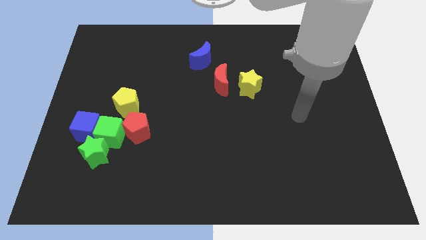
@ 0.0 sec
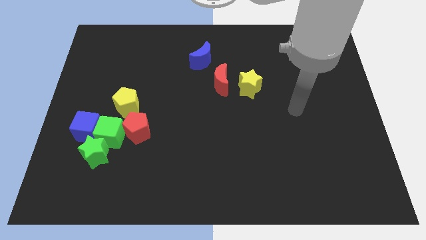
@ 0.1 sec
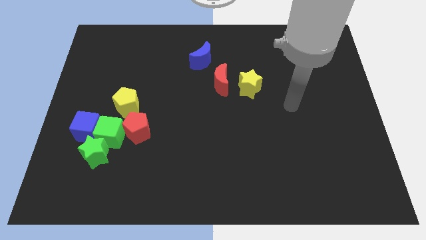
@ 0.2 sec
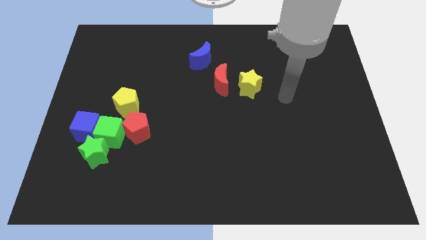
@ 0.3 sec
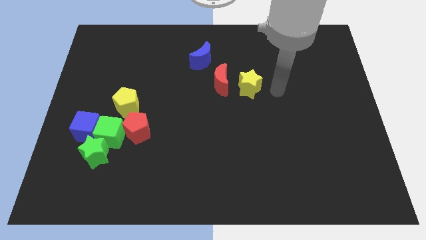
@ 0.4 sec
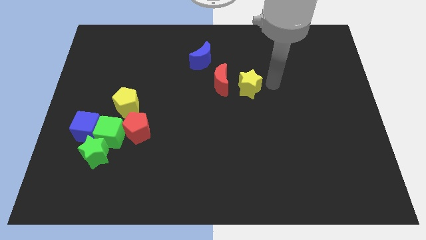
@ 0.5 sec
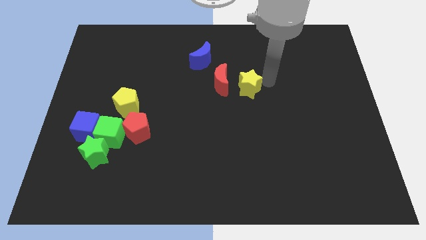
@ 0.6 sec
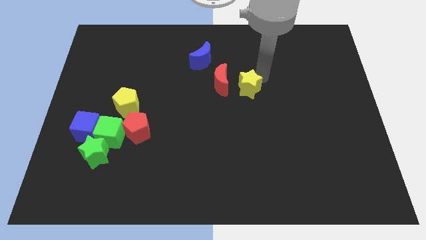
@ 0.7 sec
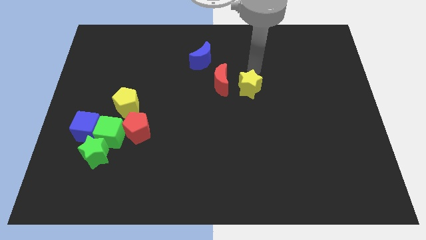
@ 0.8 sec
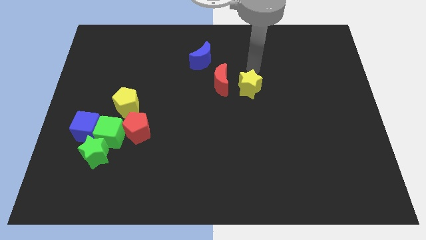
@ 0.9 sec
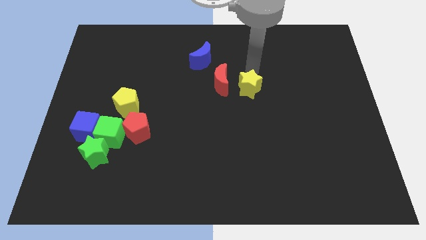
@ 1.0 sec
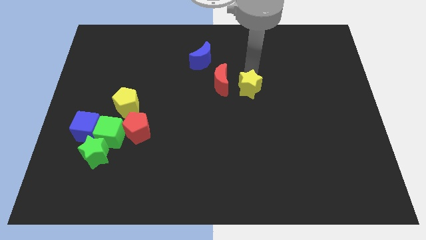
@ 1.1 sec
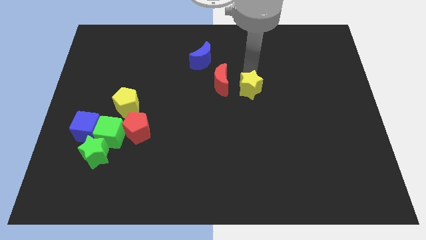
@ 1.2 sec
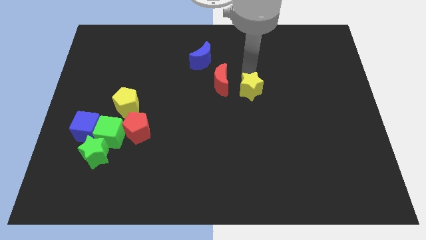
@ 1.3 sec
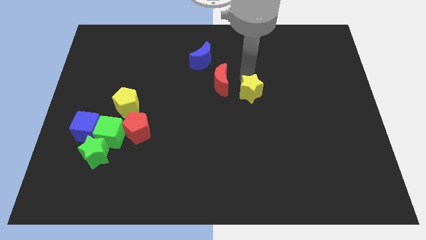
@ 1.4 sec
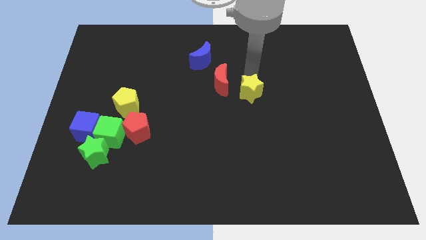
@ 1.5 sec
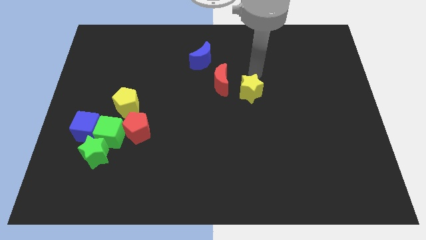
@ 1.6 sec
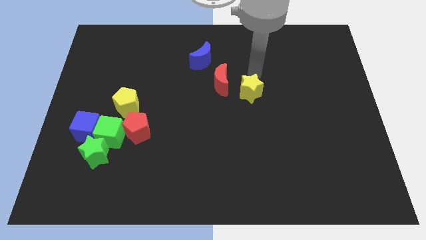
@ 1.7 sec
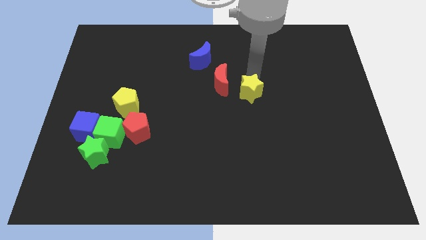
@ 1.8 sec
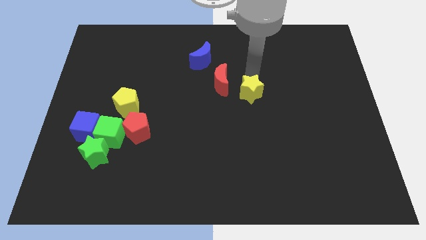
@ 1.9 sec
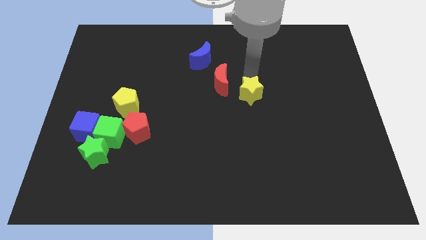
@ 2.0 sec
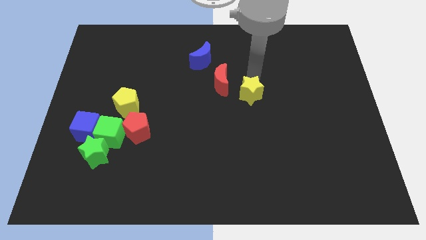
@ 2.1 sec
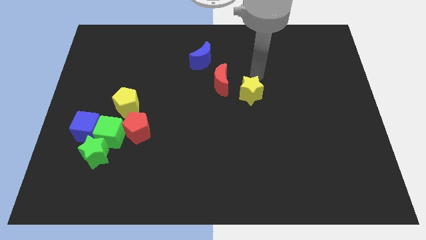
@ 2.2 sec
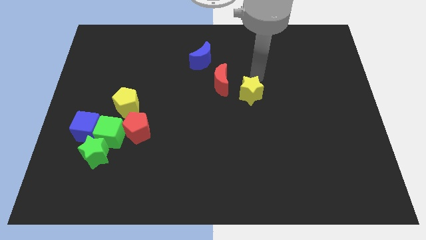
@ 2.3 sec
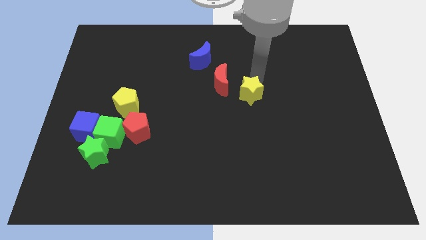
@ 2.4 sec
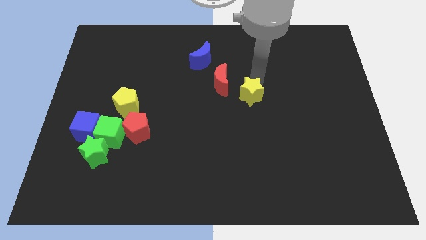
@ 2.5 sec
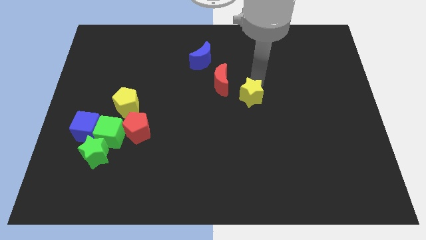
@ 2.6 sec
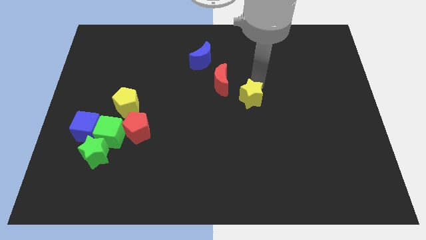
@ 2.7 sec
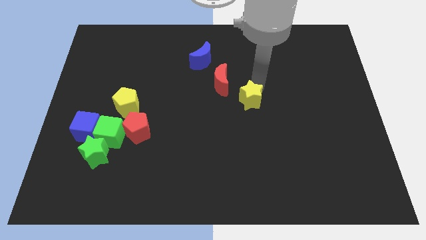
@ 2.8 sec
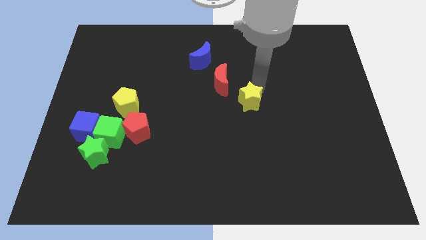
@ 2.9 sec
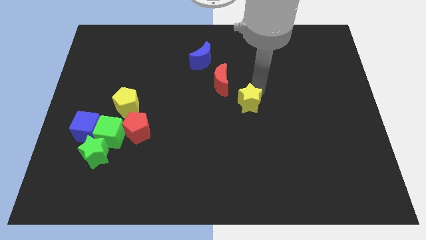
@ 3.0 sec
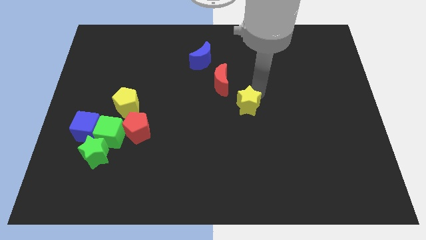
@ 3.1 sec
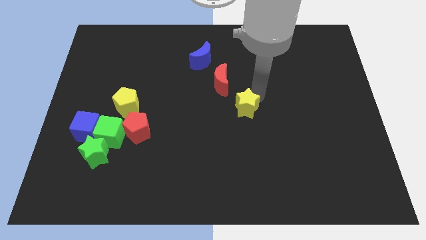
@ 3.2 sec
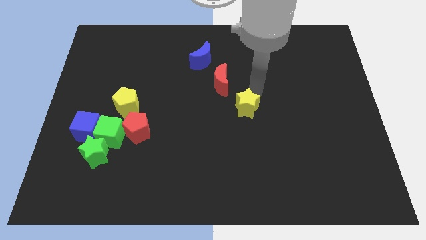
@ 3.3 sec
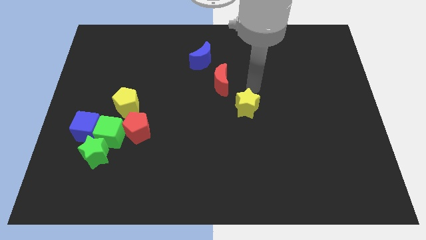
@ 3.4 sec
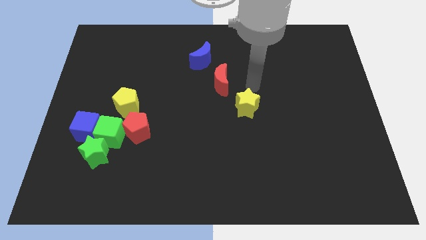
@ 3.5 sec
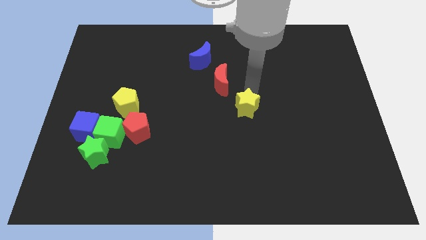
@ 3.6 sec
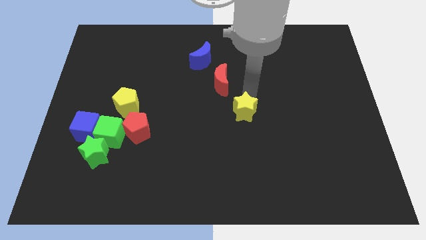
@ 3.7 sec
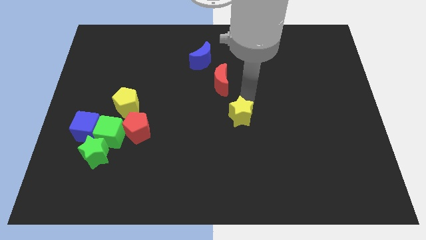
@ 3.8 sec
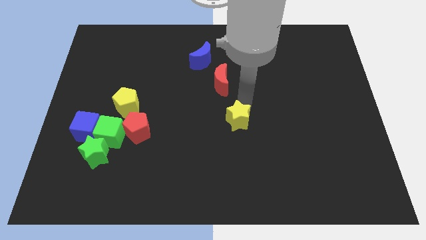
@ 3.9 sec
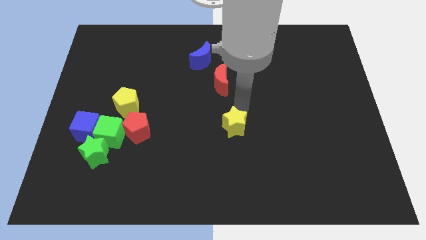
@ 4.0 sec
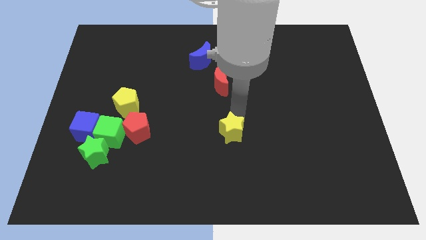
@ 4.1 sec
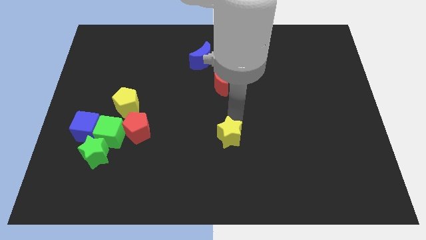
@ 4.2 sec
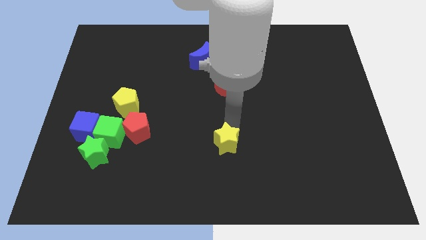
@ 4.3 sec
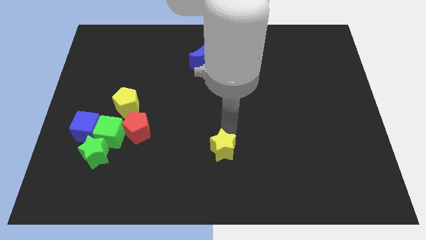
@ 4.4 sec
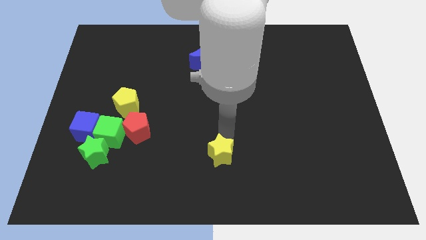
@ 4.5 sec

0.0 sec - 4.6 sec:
slide the yellow star to the bottom side

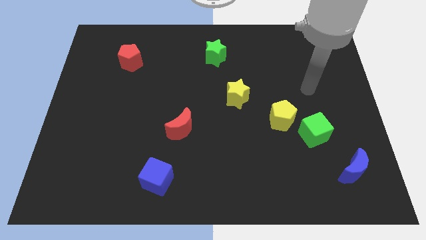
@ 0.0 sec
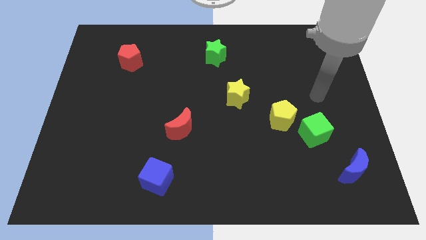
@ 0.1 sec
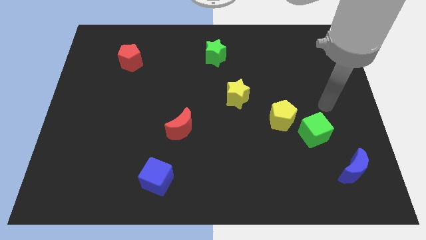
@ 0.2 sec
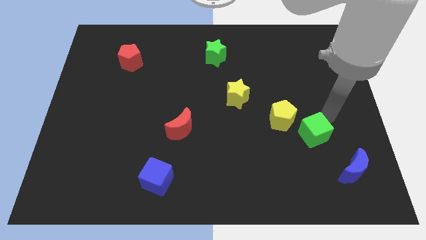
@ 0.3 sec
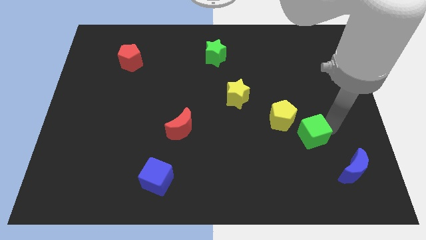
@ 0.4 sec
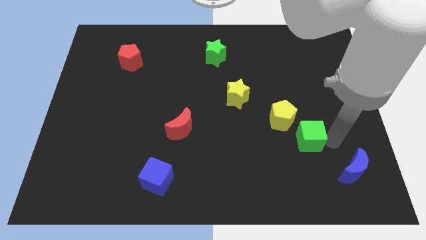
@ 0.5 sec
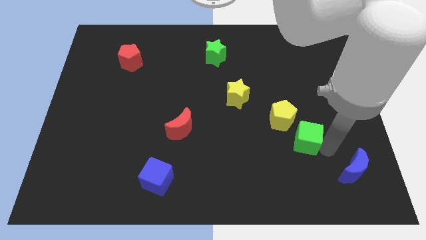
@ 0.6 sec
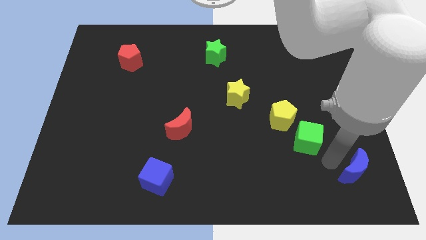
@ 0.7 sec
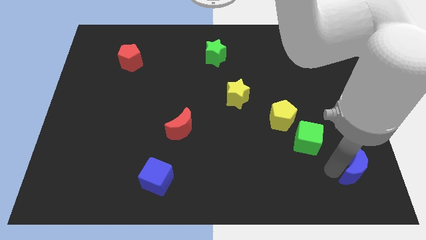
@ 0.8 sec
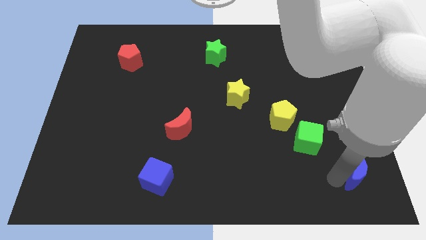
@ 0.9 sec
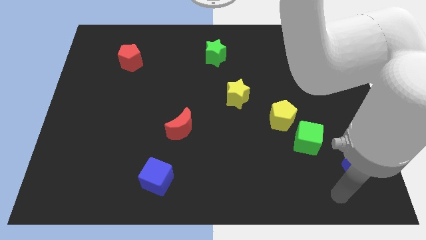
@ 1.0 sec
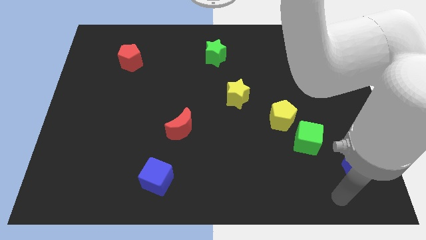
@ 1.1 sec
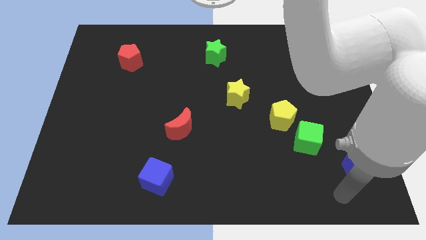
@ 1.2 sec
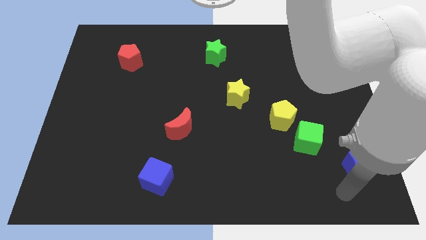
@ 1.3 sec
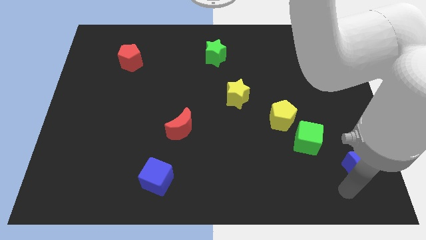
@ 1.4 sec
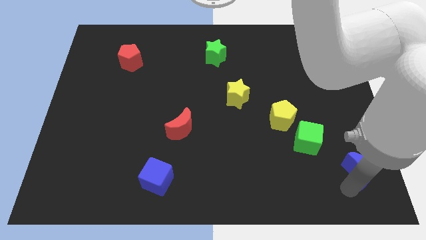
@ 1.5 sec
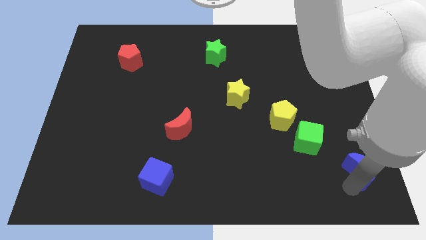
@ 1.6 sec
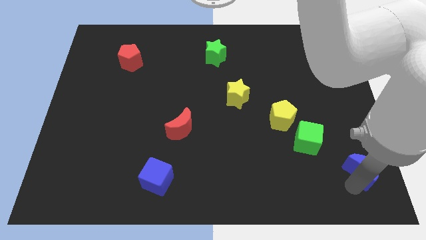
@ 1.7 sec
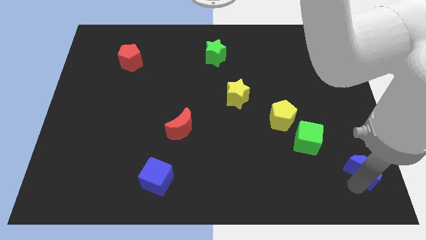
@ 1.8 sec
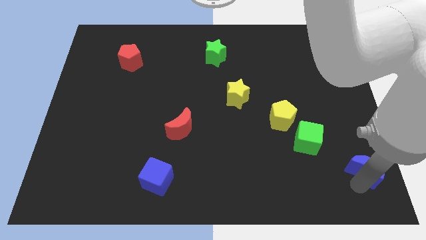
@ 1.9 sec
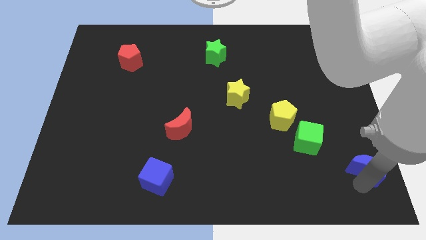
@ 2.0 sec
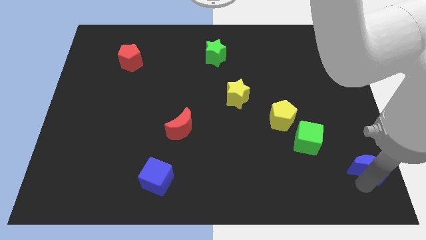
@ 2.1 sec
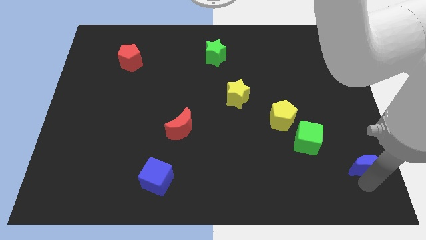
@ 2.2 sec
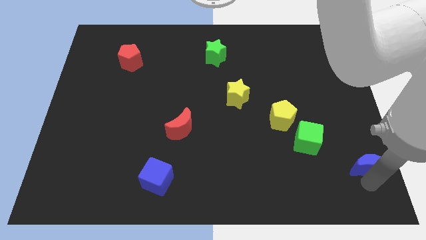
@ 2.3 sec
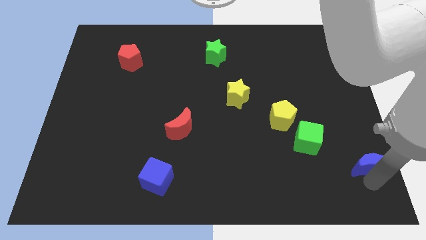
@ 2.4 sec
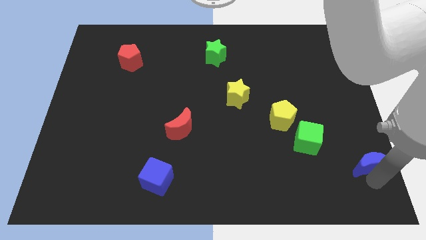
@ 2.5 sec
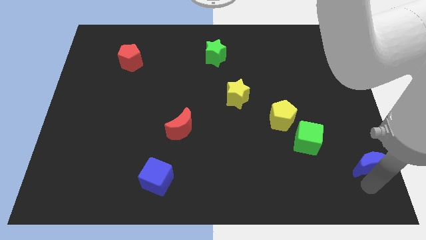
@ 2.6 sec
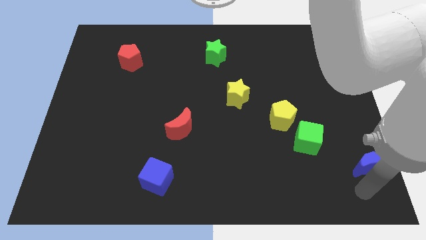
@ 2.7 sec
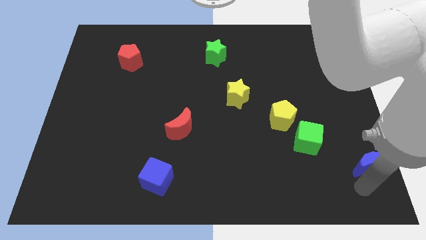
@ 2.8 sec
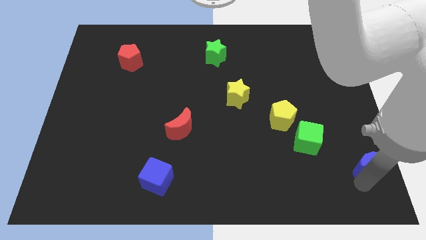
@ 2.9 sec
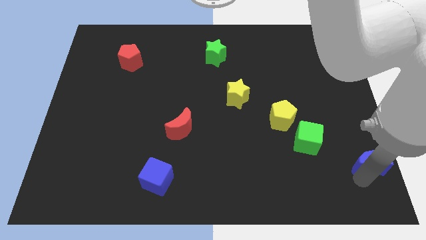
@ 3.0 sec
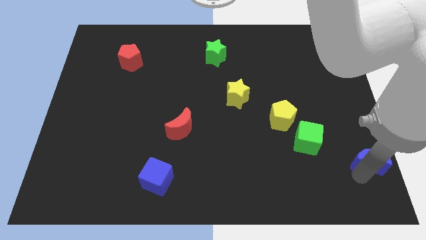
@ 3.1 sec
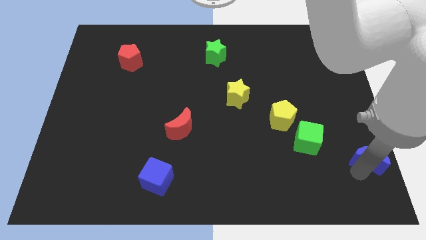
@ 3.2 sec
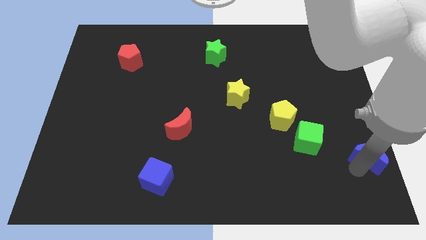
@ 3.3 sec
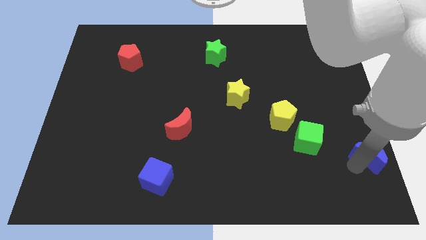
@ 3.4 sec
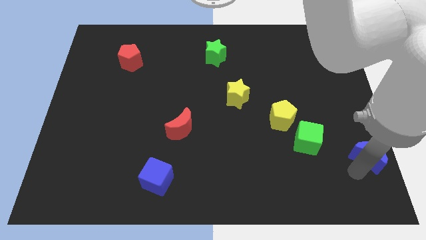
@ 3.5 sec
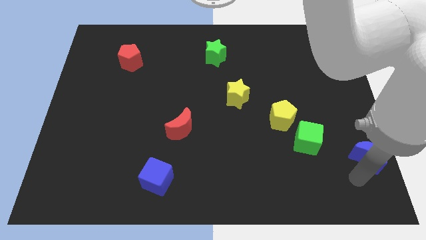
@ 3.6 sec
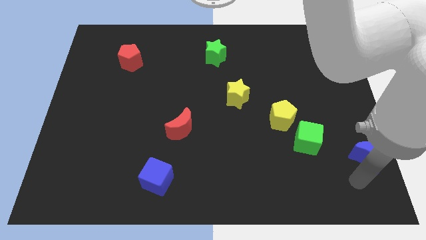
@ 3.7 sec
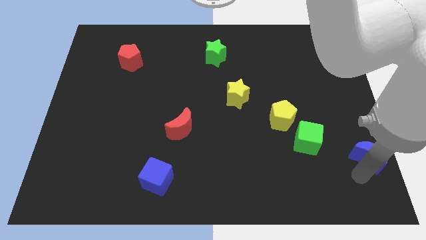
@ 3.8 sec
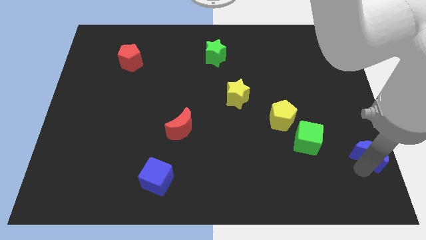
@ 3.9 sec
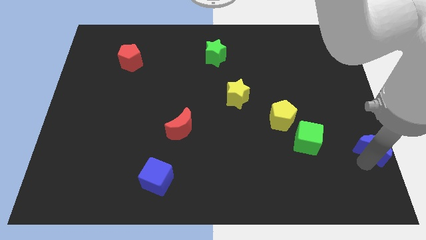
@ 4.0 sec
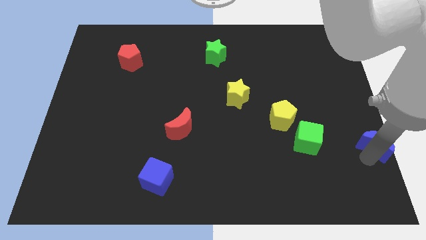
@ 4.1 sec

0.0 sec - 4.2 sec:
put the blue moon to the right side
